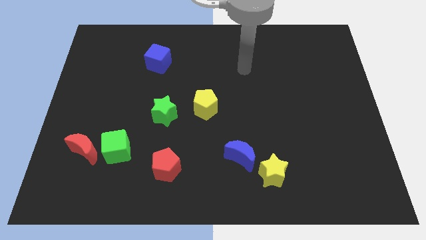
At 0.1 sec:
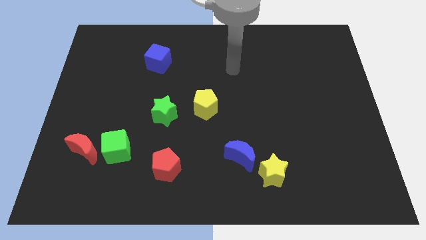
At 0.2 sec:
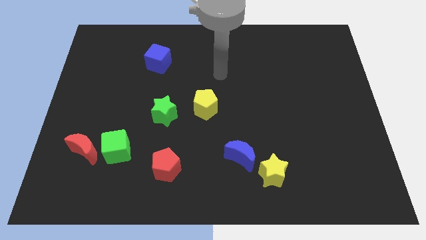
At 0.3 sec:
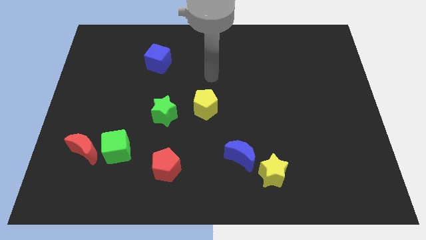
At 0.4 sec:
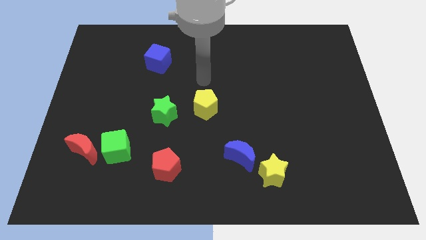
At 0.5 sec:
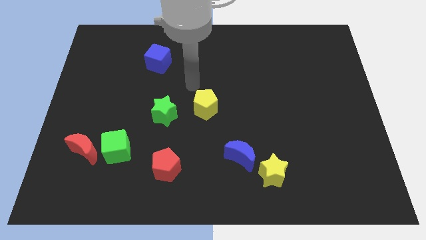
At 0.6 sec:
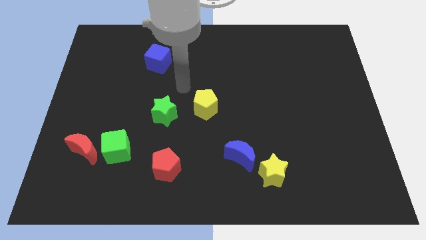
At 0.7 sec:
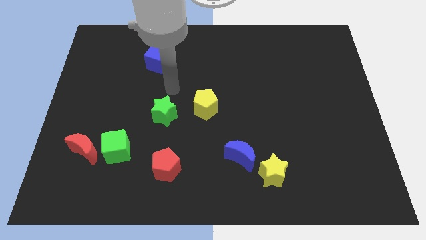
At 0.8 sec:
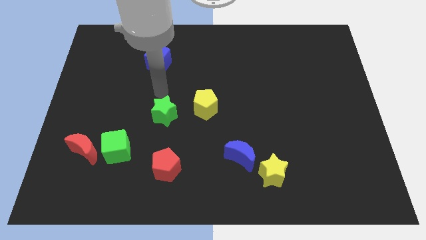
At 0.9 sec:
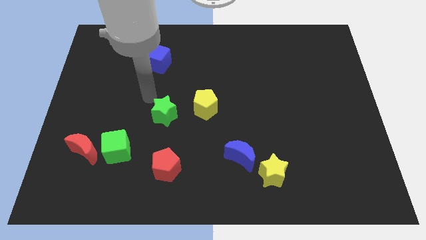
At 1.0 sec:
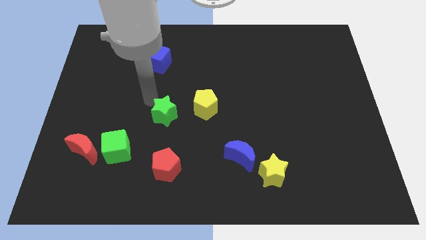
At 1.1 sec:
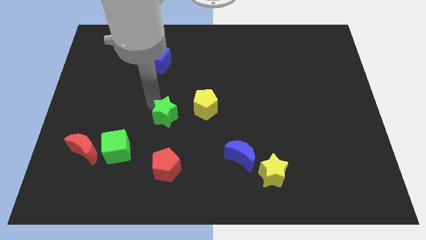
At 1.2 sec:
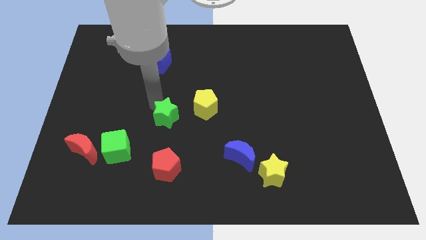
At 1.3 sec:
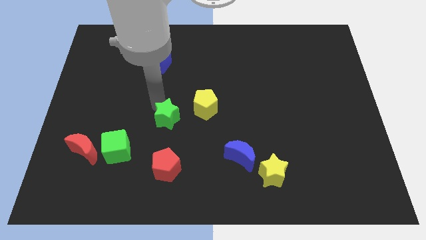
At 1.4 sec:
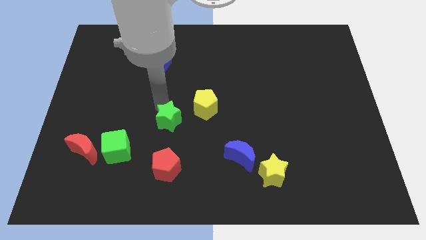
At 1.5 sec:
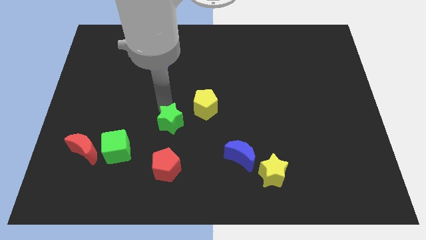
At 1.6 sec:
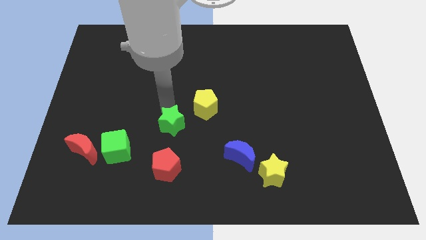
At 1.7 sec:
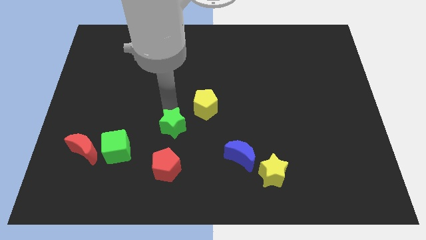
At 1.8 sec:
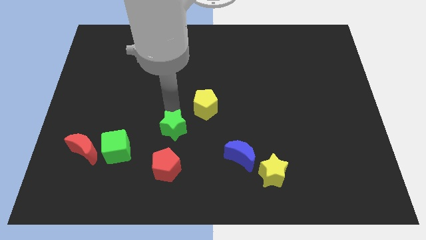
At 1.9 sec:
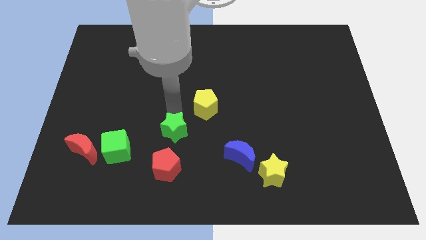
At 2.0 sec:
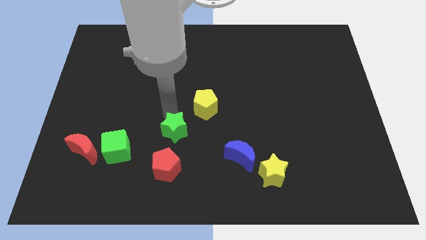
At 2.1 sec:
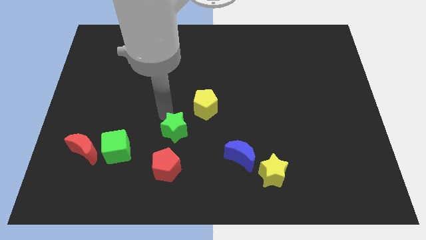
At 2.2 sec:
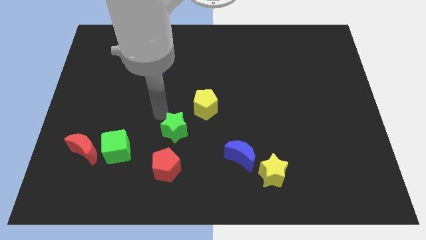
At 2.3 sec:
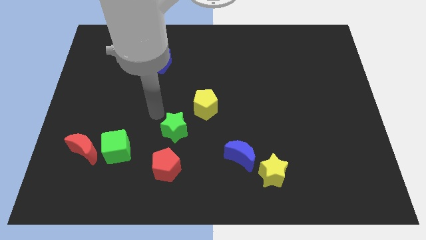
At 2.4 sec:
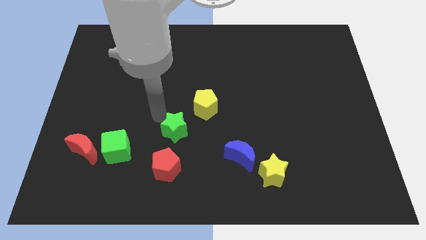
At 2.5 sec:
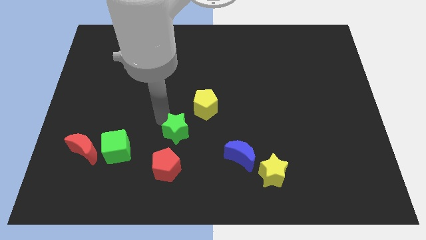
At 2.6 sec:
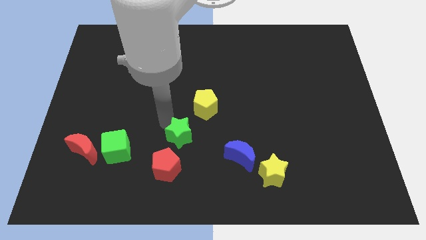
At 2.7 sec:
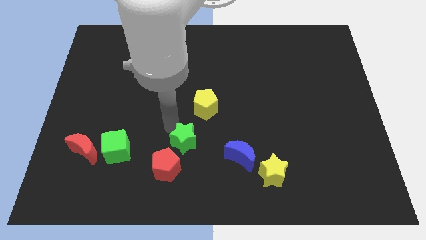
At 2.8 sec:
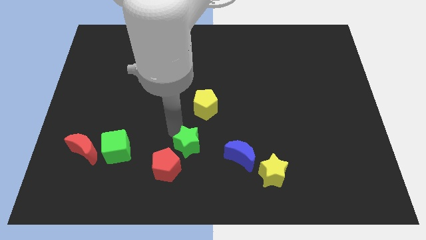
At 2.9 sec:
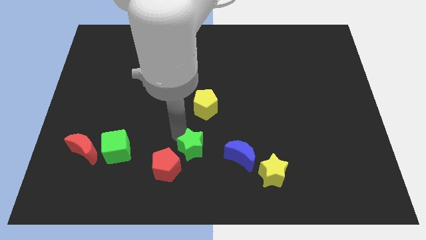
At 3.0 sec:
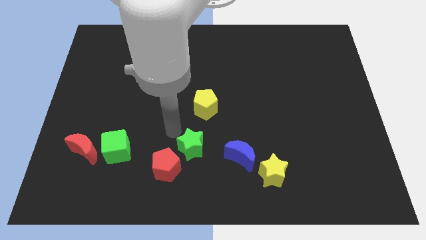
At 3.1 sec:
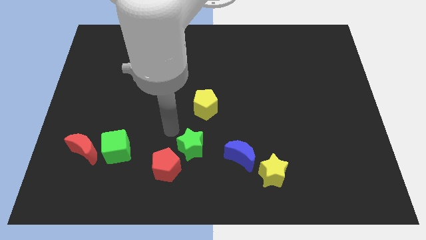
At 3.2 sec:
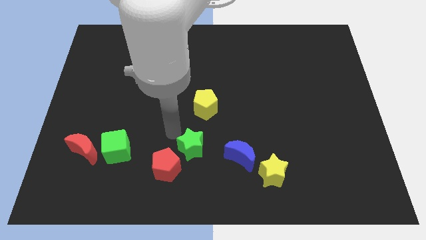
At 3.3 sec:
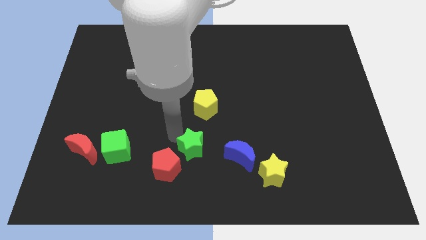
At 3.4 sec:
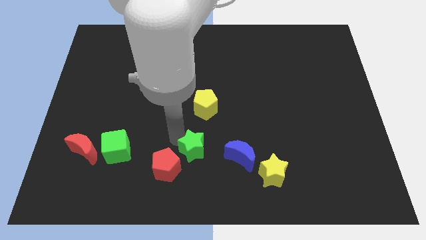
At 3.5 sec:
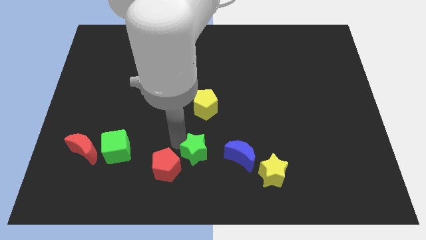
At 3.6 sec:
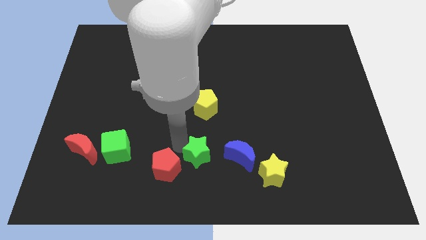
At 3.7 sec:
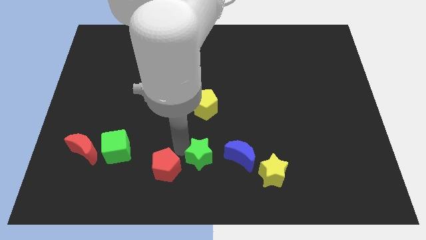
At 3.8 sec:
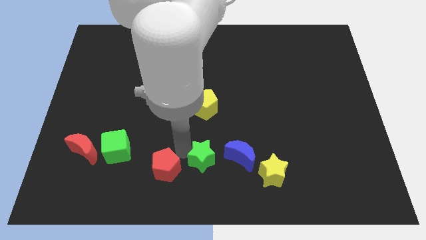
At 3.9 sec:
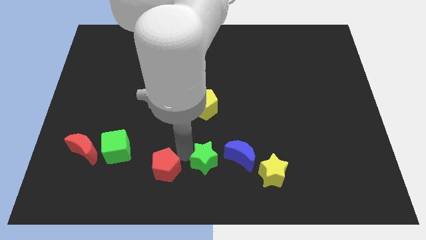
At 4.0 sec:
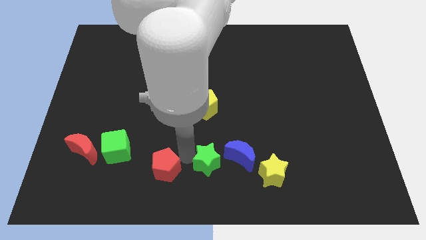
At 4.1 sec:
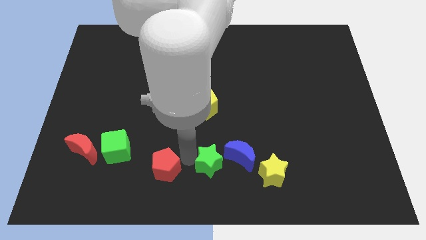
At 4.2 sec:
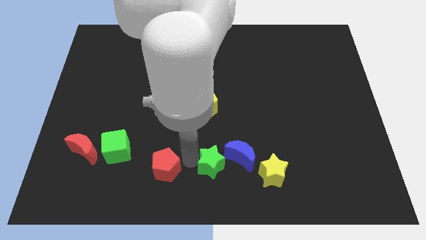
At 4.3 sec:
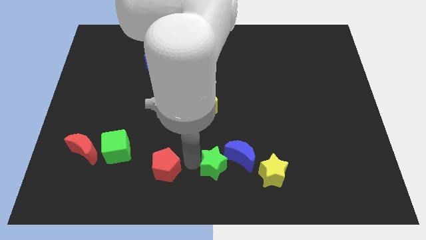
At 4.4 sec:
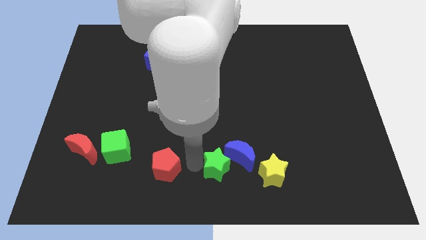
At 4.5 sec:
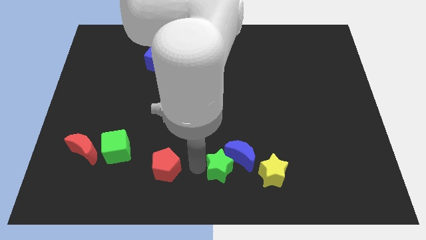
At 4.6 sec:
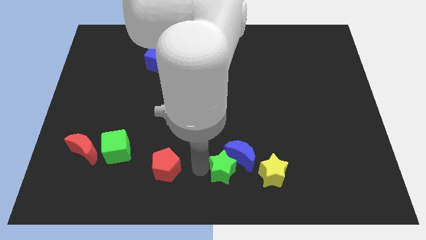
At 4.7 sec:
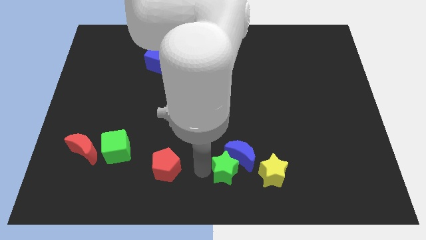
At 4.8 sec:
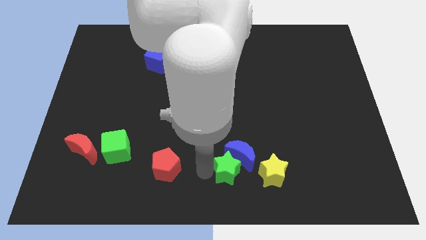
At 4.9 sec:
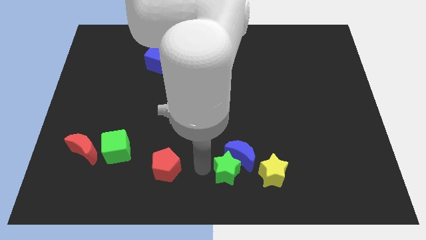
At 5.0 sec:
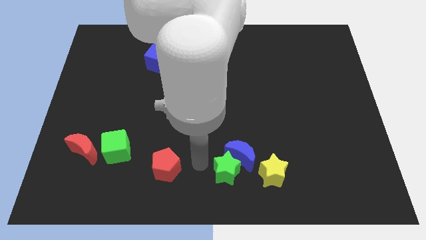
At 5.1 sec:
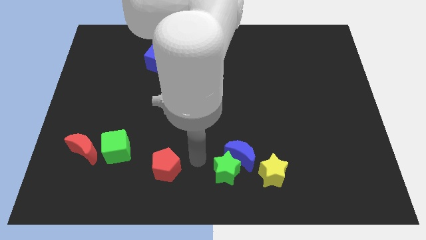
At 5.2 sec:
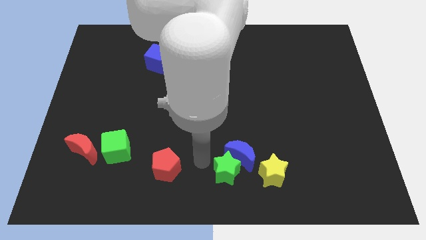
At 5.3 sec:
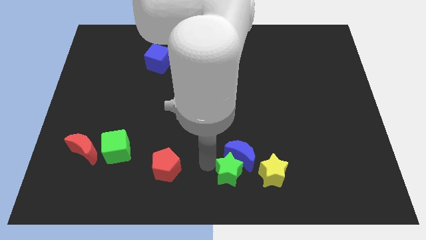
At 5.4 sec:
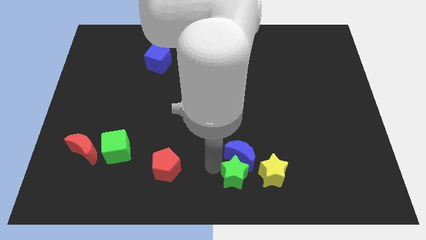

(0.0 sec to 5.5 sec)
push the green star diagonally down and to the right of the blue moon

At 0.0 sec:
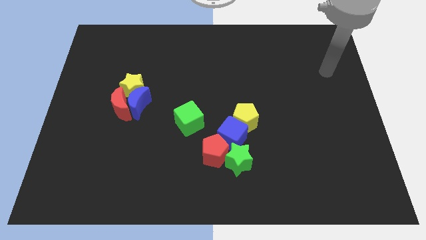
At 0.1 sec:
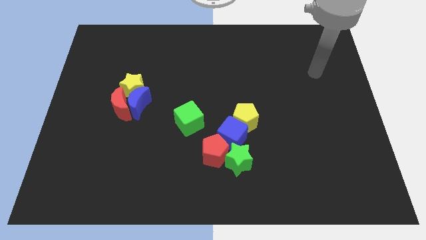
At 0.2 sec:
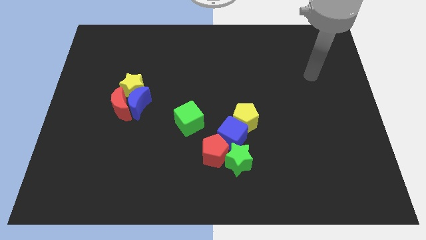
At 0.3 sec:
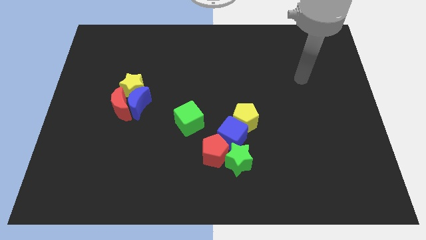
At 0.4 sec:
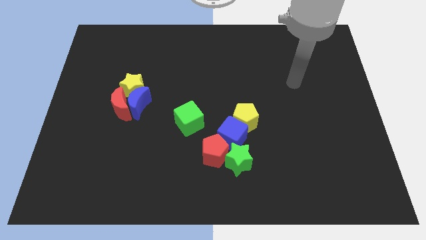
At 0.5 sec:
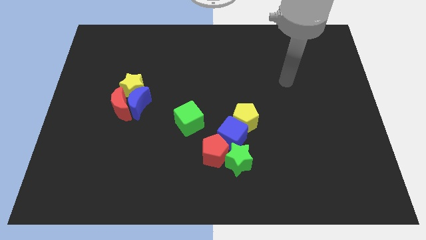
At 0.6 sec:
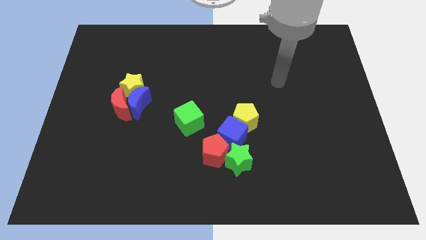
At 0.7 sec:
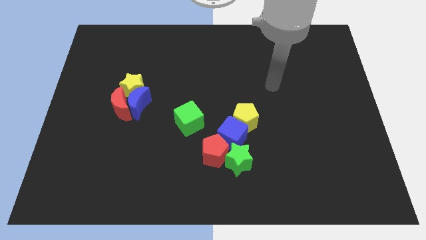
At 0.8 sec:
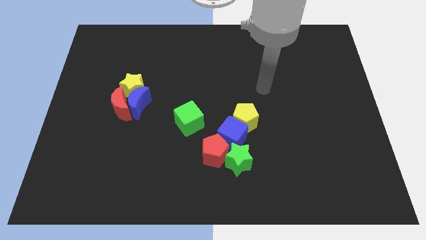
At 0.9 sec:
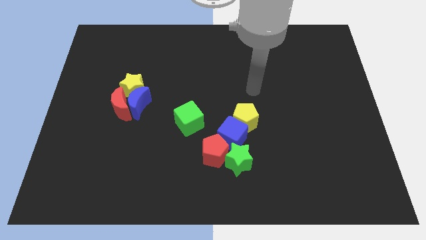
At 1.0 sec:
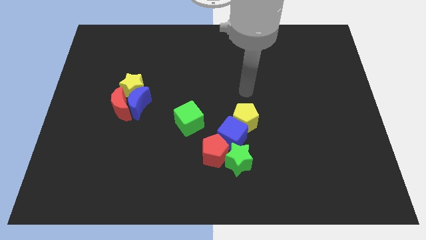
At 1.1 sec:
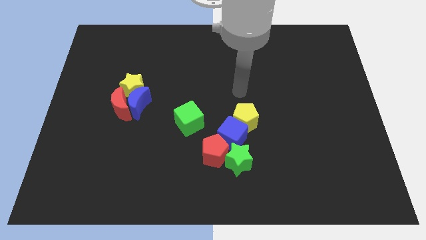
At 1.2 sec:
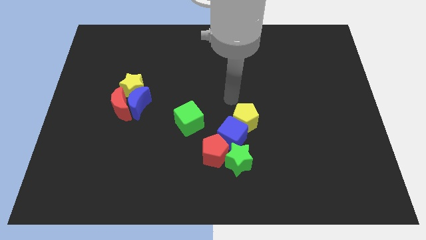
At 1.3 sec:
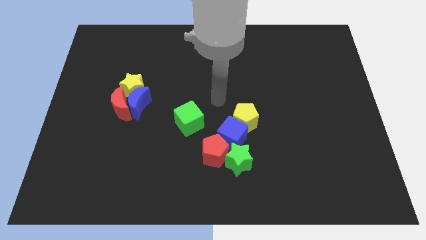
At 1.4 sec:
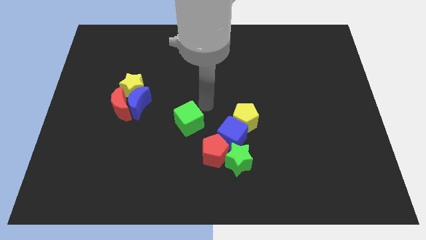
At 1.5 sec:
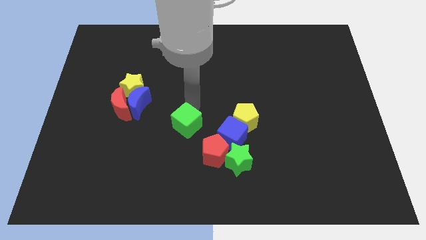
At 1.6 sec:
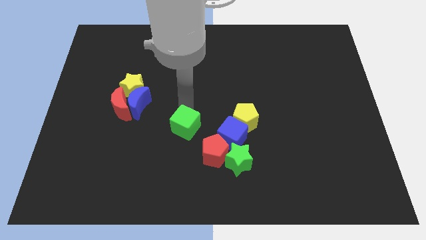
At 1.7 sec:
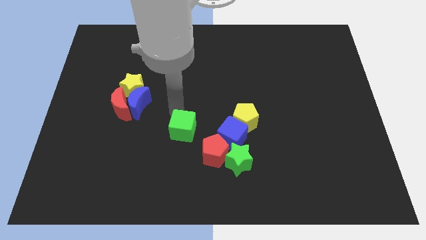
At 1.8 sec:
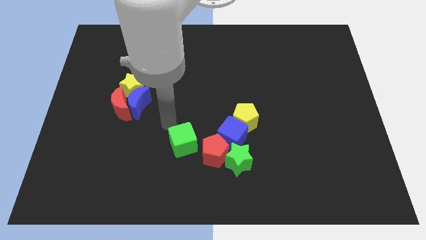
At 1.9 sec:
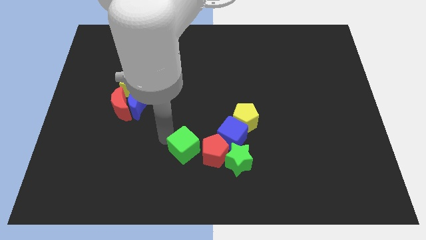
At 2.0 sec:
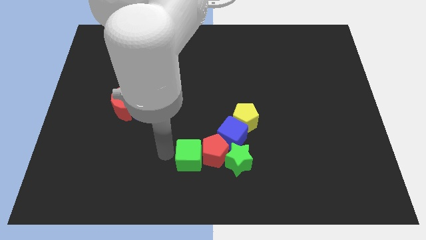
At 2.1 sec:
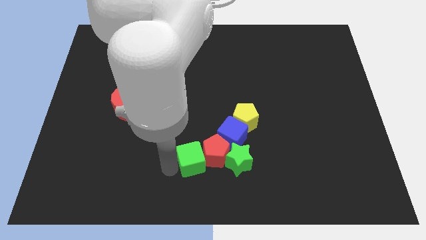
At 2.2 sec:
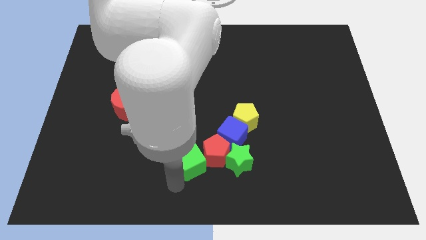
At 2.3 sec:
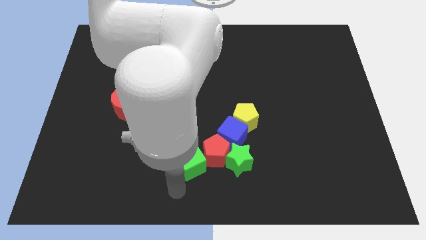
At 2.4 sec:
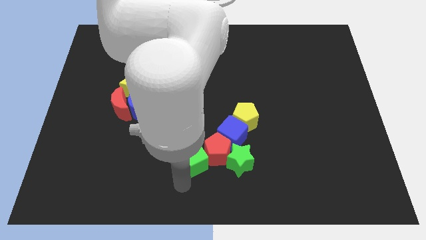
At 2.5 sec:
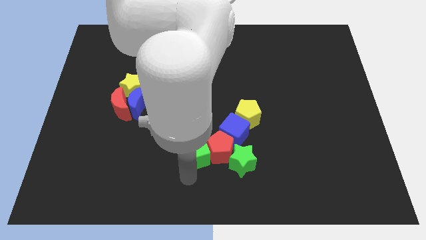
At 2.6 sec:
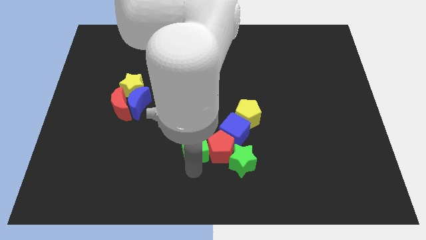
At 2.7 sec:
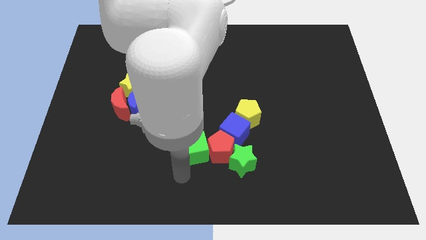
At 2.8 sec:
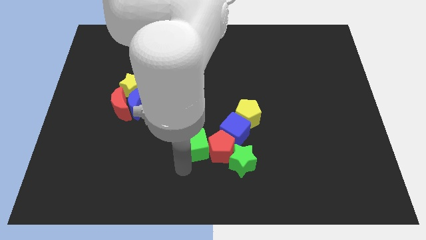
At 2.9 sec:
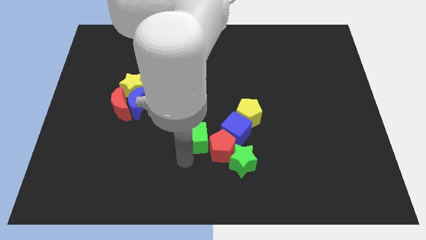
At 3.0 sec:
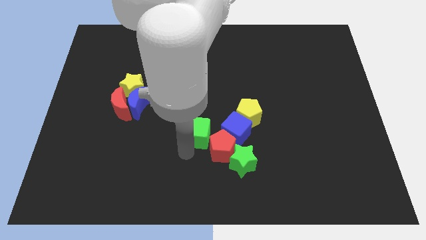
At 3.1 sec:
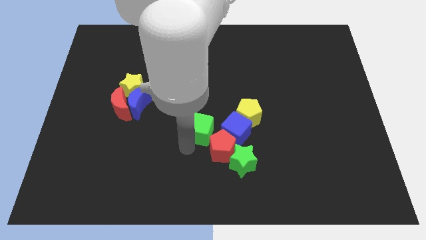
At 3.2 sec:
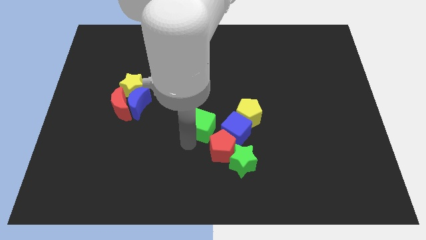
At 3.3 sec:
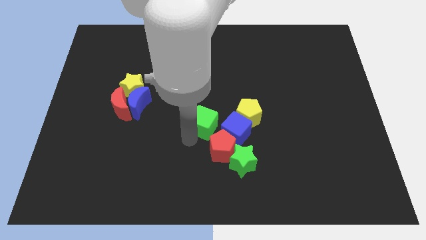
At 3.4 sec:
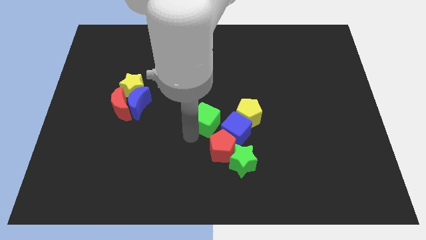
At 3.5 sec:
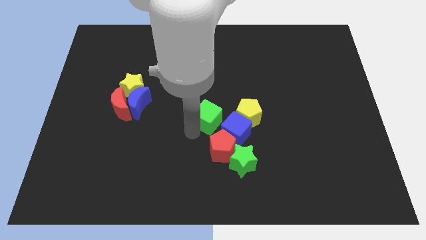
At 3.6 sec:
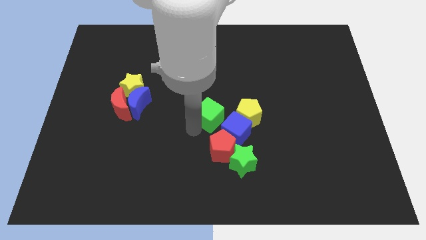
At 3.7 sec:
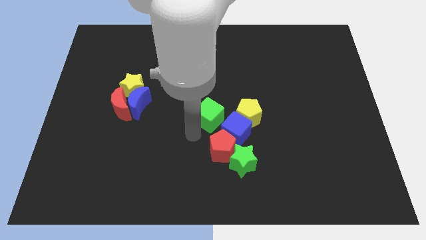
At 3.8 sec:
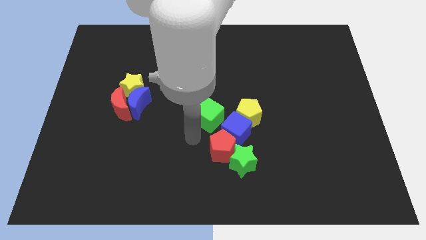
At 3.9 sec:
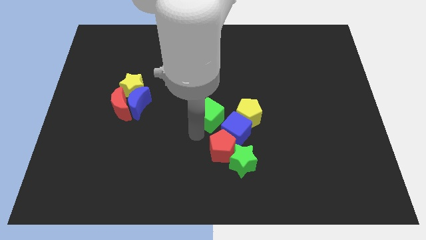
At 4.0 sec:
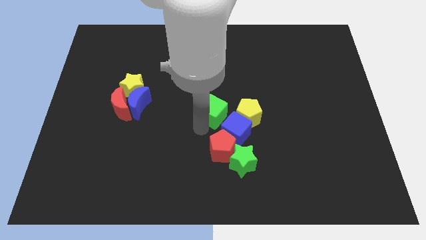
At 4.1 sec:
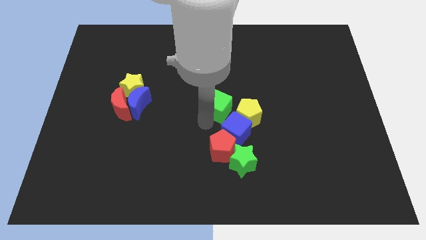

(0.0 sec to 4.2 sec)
put the green cube to the top left side of the yellow pentagon
